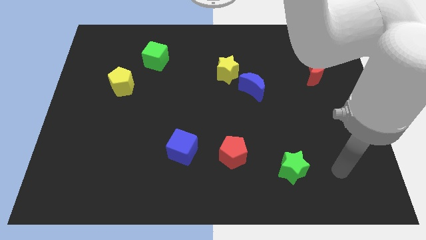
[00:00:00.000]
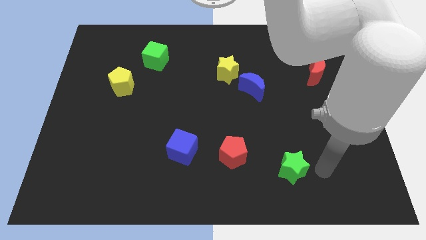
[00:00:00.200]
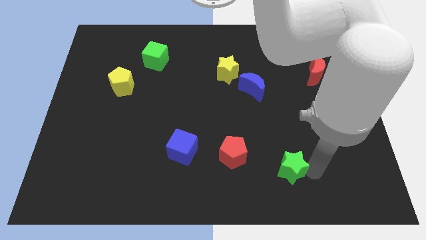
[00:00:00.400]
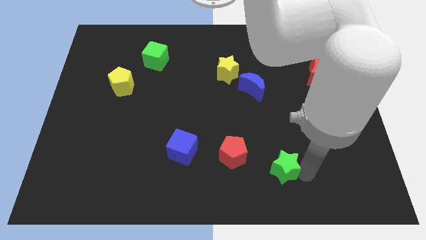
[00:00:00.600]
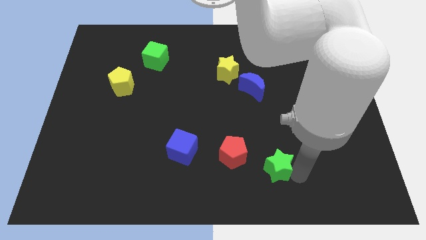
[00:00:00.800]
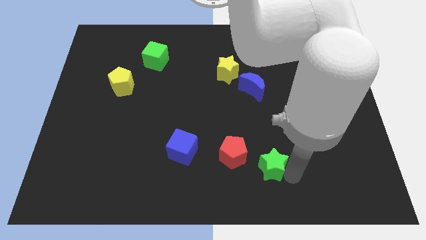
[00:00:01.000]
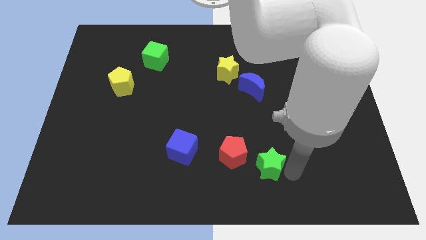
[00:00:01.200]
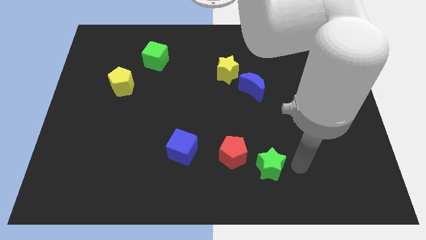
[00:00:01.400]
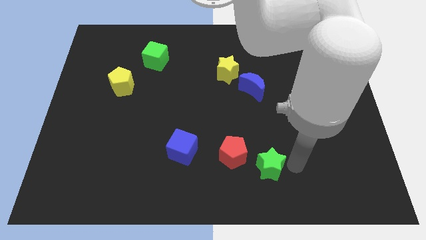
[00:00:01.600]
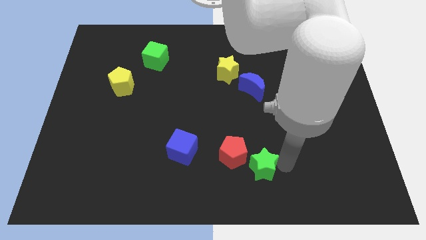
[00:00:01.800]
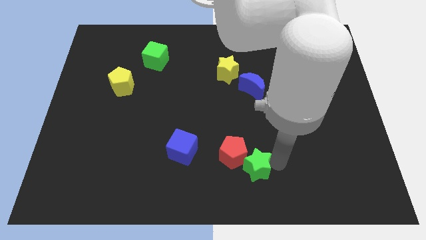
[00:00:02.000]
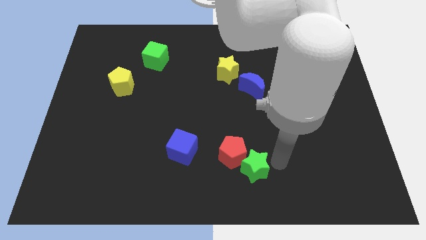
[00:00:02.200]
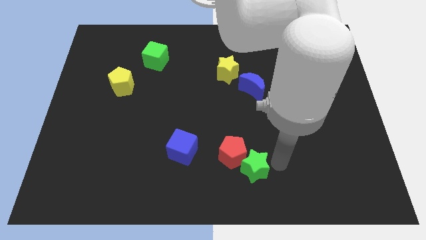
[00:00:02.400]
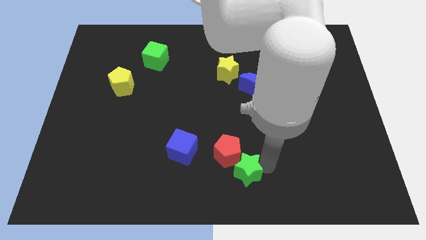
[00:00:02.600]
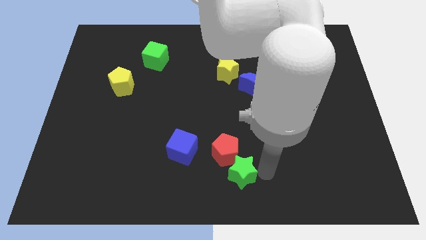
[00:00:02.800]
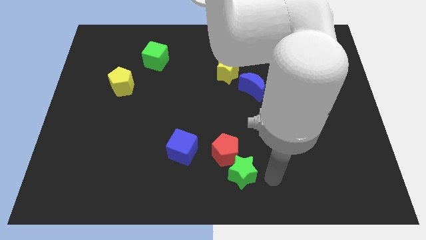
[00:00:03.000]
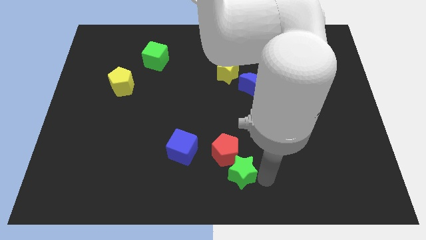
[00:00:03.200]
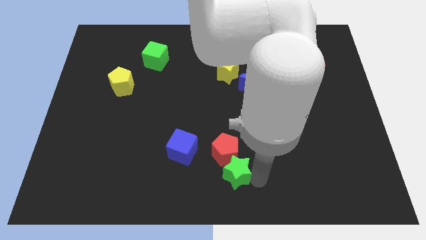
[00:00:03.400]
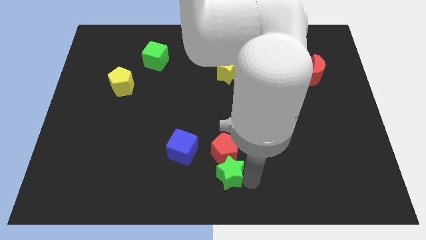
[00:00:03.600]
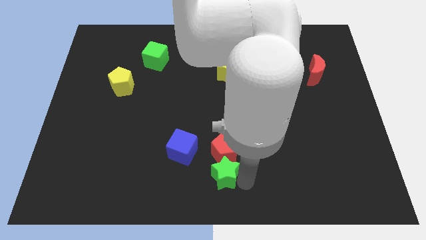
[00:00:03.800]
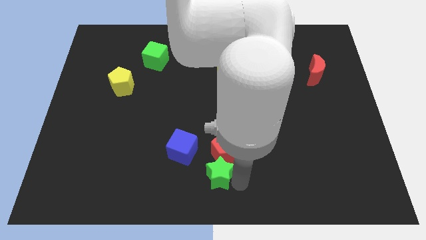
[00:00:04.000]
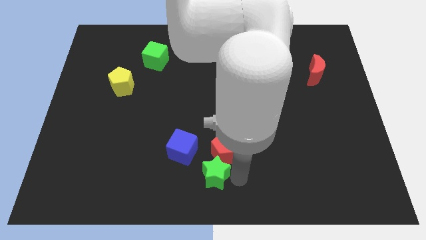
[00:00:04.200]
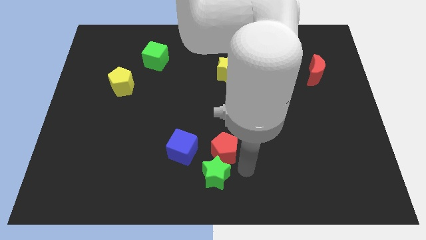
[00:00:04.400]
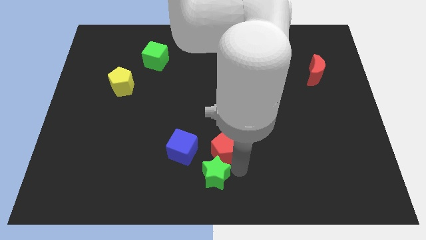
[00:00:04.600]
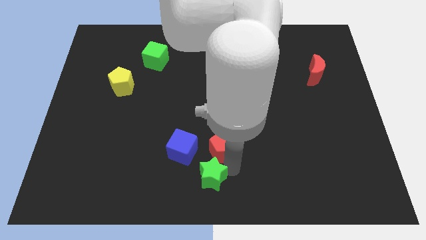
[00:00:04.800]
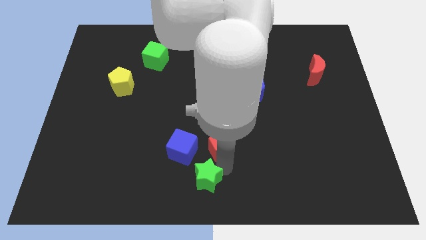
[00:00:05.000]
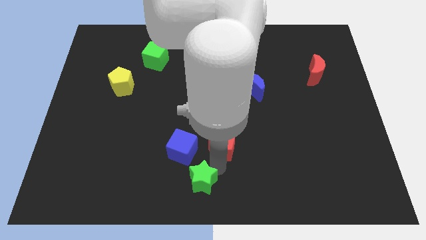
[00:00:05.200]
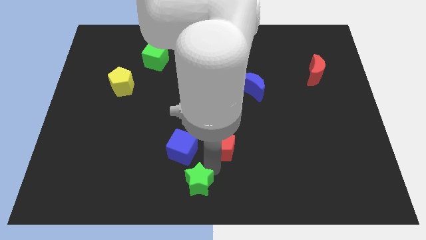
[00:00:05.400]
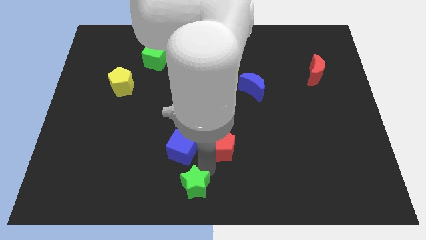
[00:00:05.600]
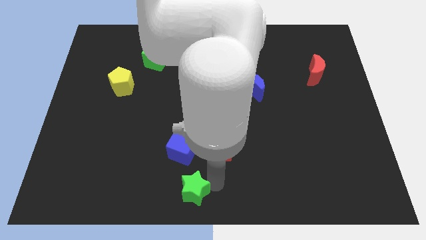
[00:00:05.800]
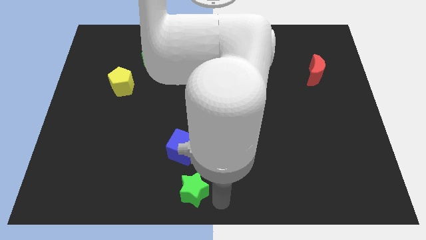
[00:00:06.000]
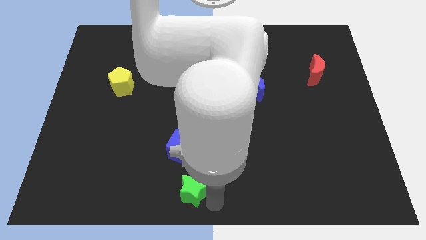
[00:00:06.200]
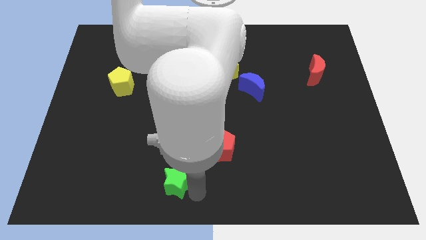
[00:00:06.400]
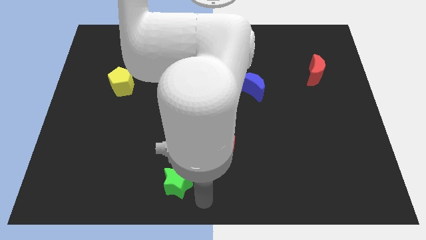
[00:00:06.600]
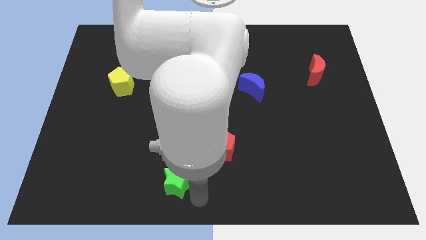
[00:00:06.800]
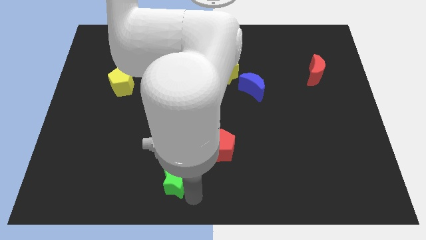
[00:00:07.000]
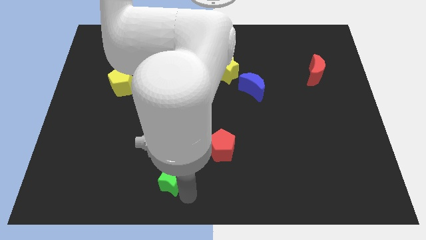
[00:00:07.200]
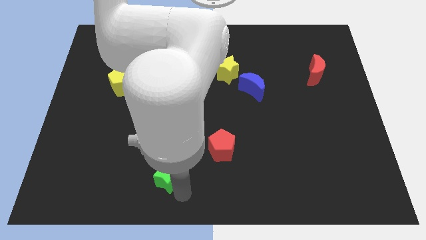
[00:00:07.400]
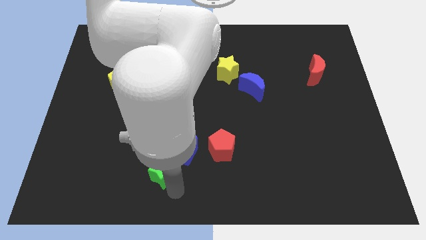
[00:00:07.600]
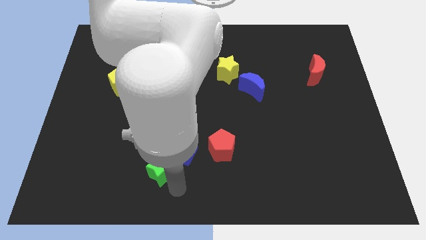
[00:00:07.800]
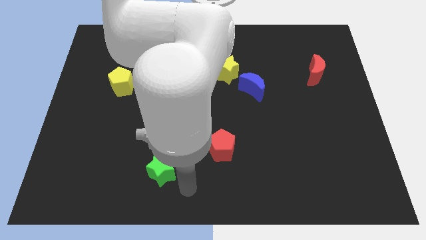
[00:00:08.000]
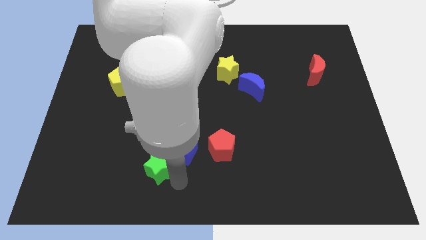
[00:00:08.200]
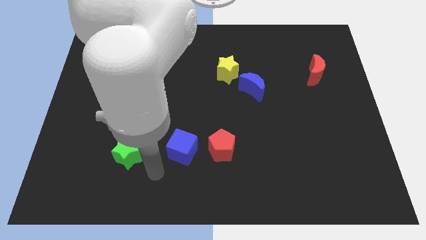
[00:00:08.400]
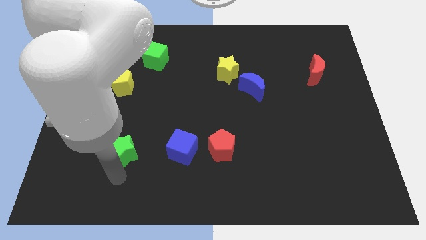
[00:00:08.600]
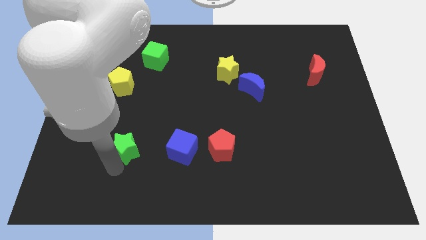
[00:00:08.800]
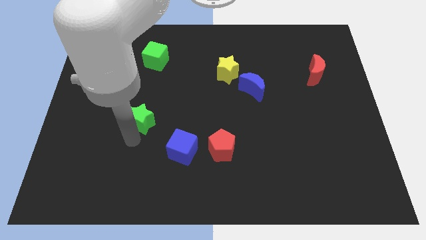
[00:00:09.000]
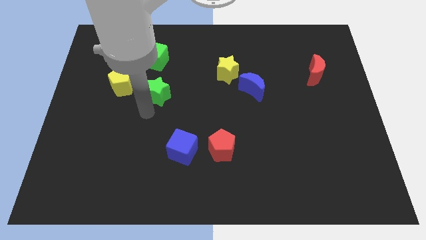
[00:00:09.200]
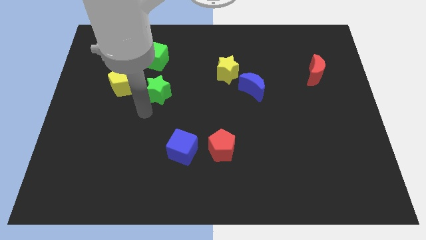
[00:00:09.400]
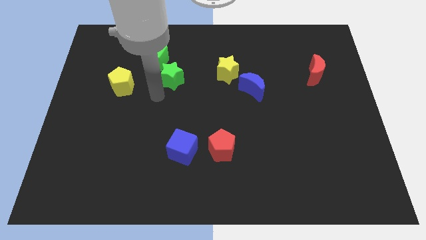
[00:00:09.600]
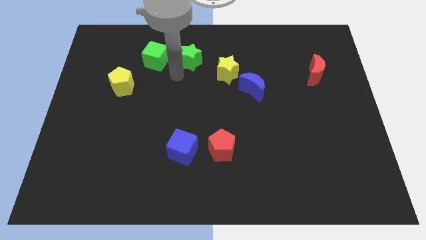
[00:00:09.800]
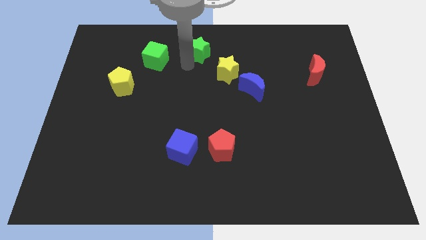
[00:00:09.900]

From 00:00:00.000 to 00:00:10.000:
push the green star to the top

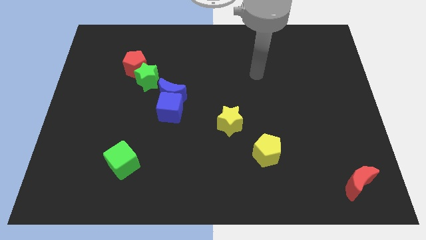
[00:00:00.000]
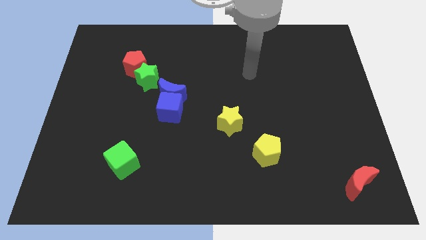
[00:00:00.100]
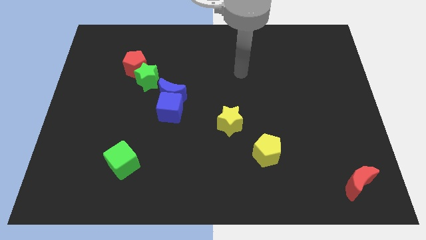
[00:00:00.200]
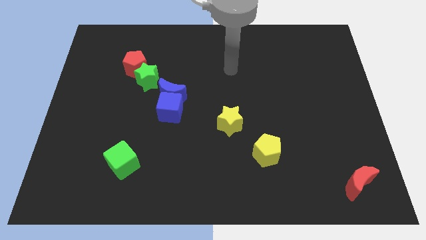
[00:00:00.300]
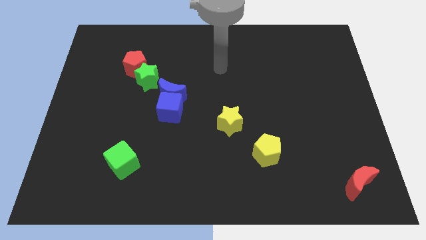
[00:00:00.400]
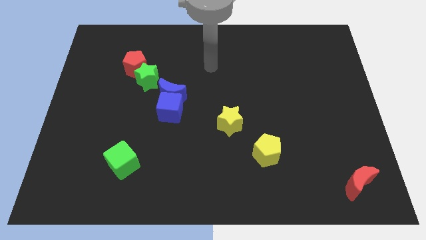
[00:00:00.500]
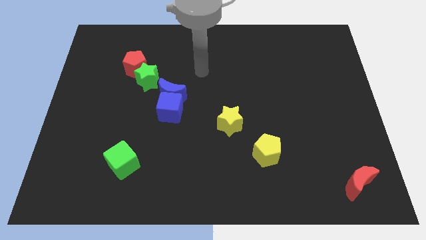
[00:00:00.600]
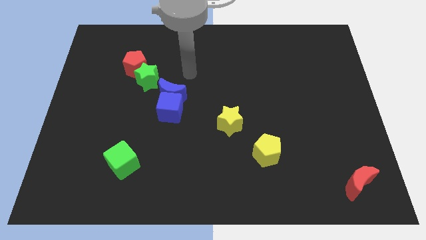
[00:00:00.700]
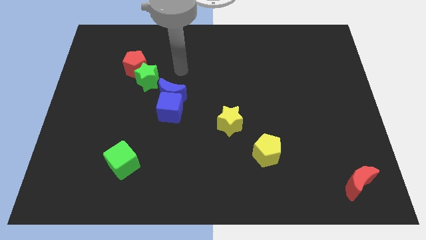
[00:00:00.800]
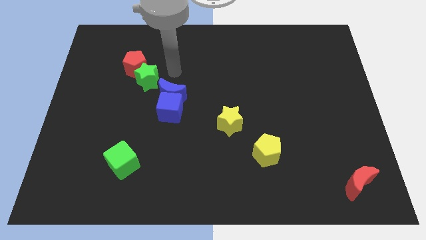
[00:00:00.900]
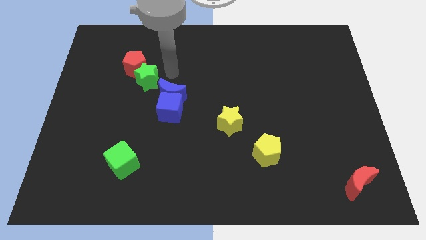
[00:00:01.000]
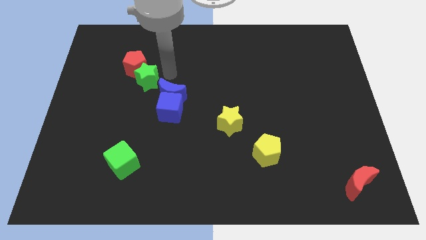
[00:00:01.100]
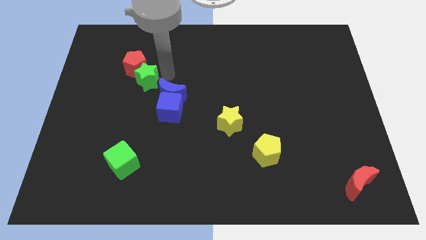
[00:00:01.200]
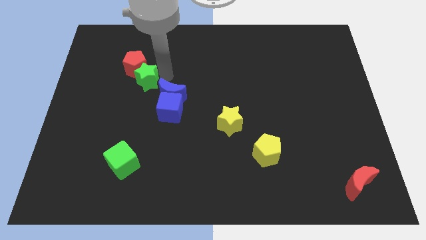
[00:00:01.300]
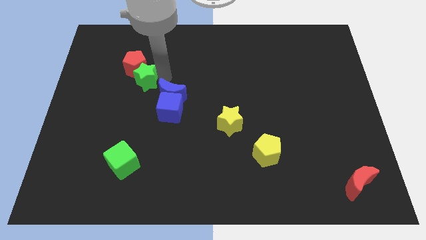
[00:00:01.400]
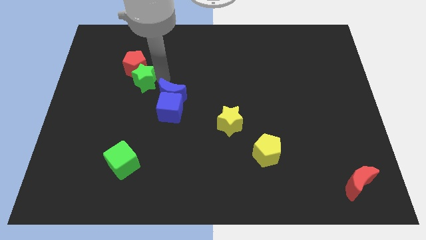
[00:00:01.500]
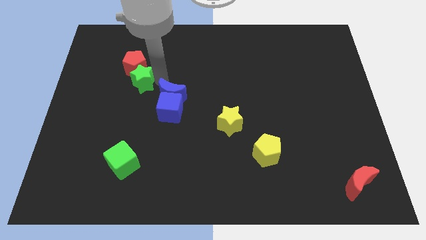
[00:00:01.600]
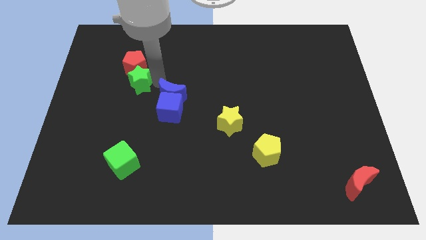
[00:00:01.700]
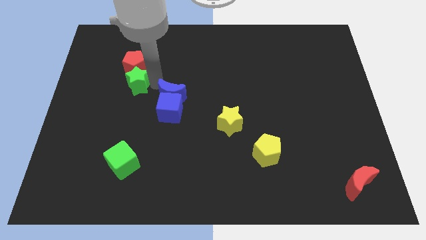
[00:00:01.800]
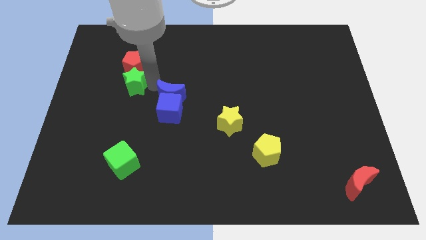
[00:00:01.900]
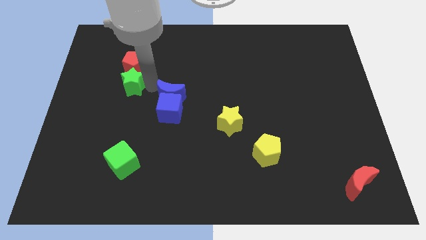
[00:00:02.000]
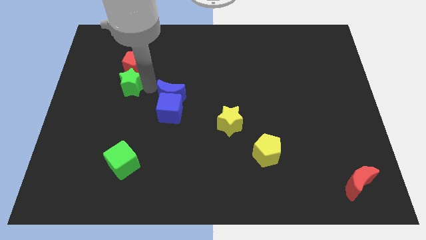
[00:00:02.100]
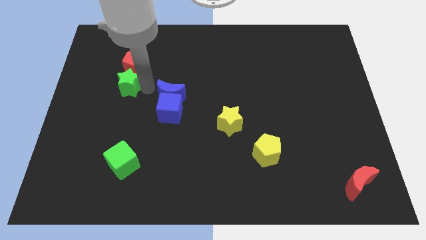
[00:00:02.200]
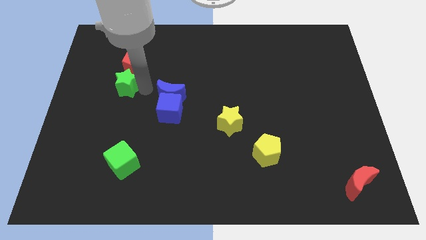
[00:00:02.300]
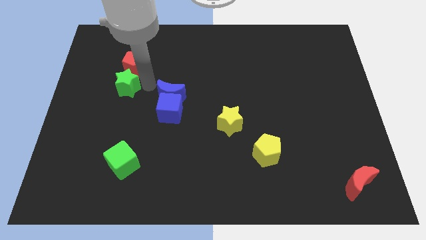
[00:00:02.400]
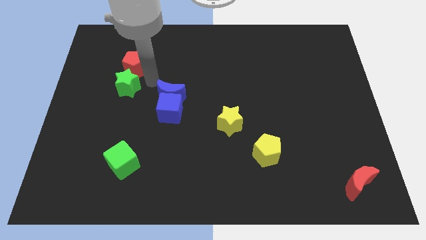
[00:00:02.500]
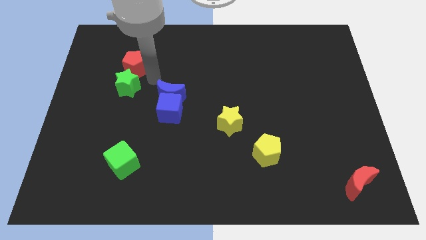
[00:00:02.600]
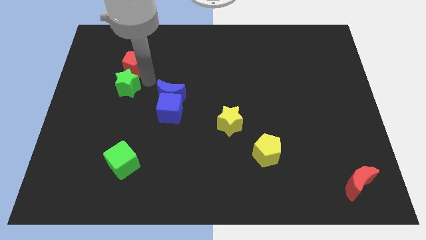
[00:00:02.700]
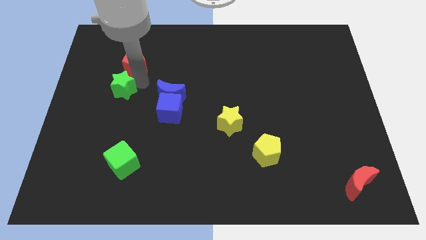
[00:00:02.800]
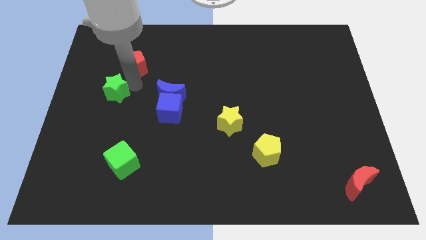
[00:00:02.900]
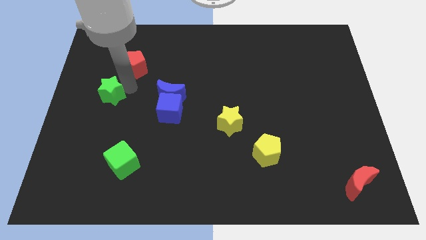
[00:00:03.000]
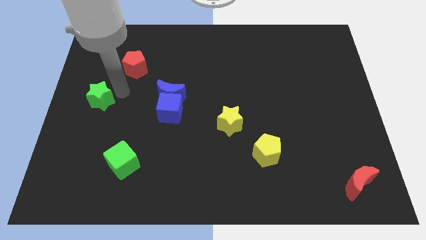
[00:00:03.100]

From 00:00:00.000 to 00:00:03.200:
move the green star to the left side of the board
